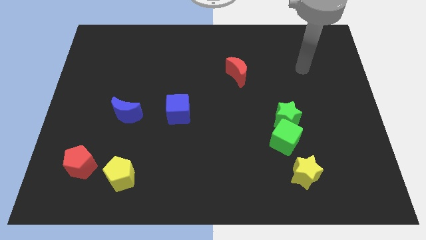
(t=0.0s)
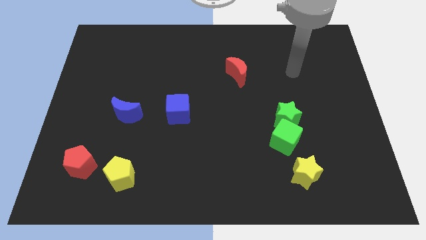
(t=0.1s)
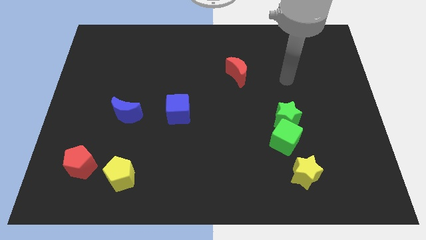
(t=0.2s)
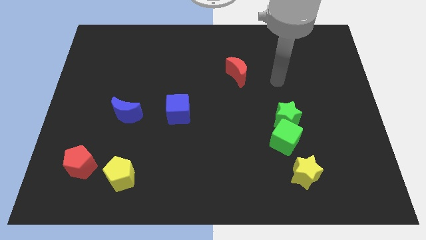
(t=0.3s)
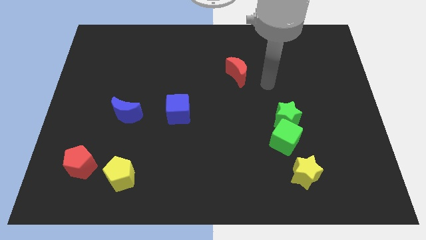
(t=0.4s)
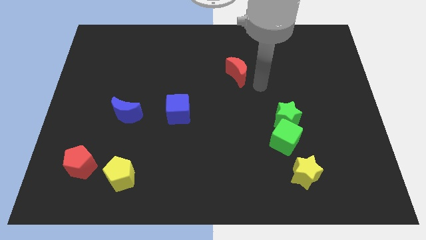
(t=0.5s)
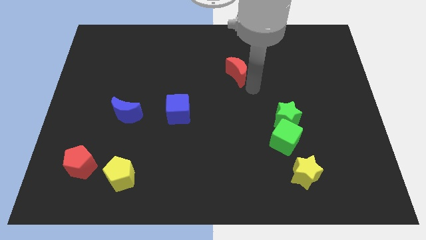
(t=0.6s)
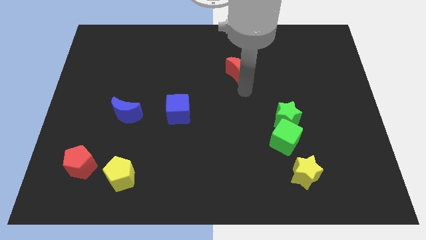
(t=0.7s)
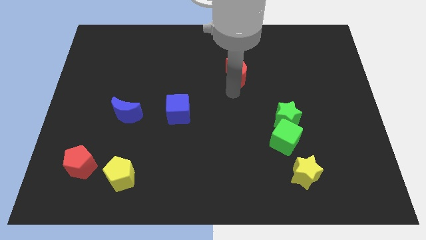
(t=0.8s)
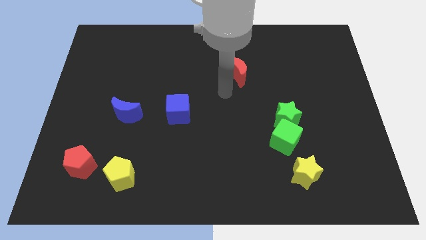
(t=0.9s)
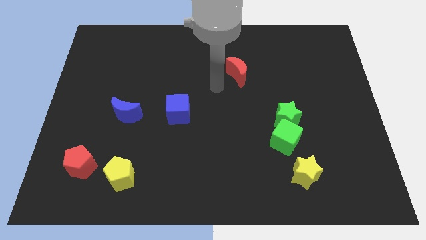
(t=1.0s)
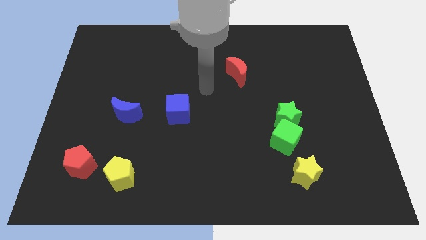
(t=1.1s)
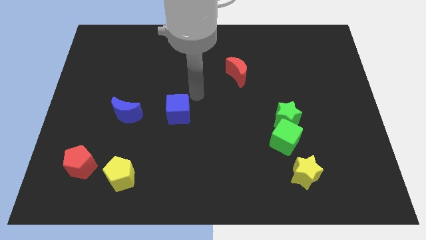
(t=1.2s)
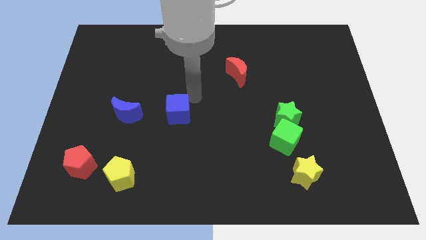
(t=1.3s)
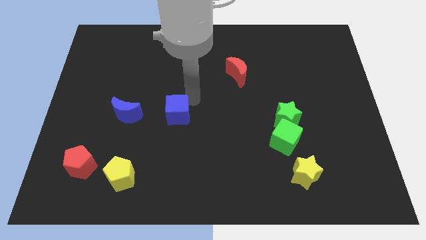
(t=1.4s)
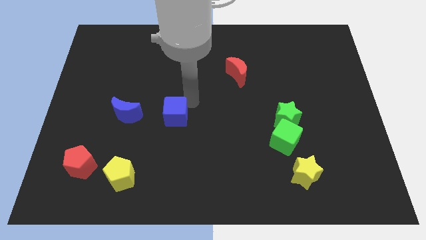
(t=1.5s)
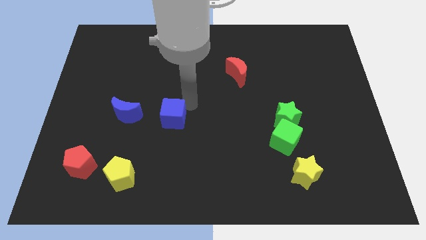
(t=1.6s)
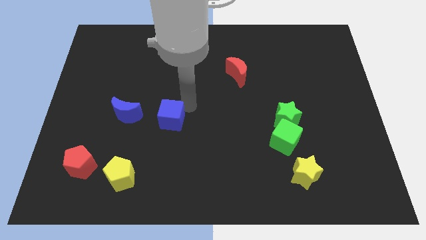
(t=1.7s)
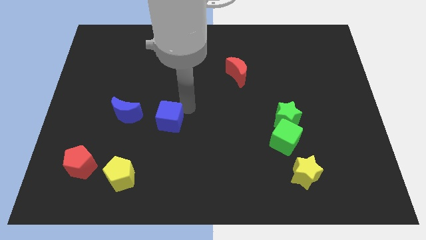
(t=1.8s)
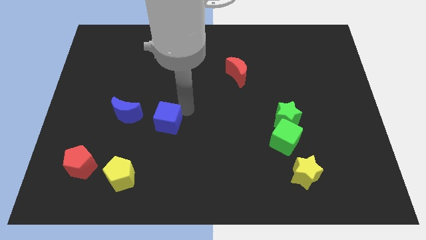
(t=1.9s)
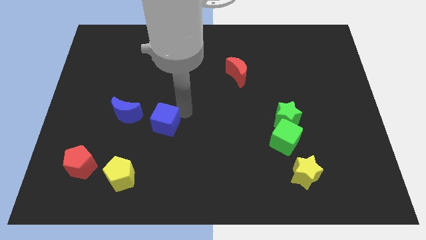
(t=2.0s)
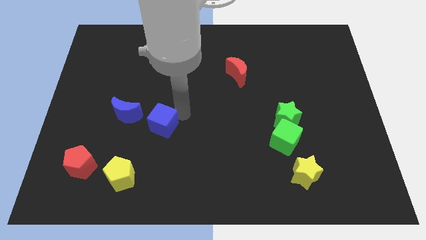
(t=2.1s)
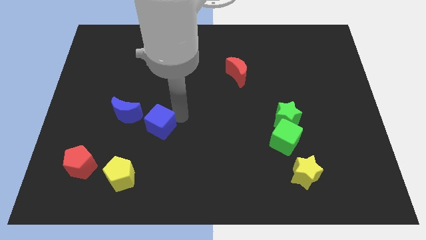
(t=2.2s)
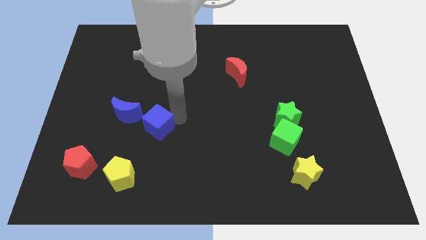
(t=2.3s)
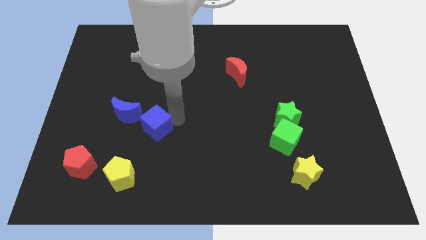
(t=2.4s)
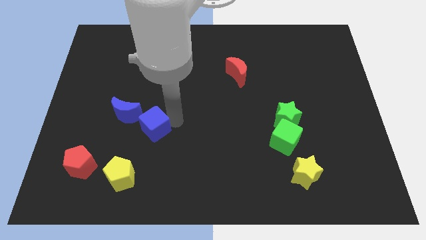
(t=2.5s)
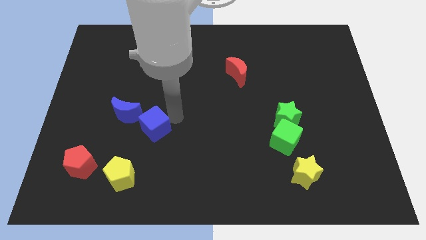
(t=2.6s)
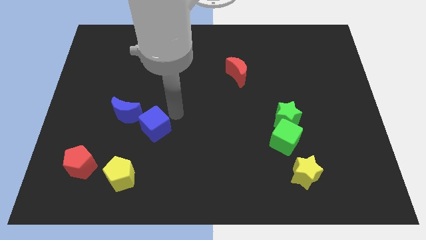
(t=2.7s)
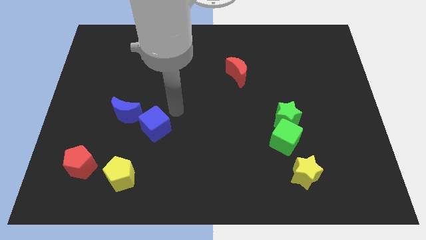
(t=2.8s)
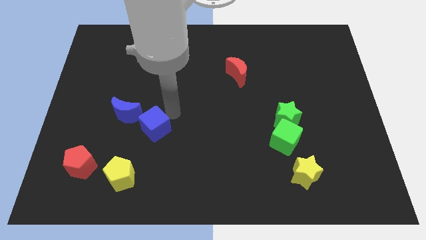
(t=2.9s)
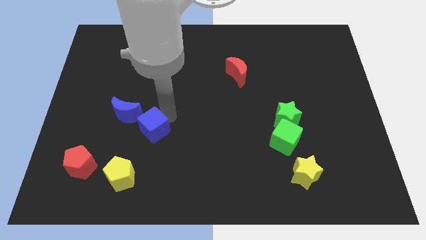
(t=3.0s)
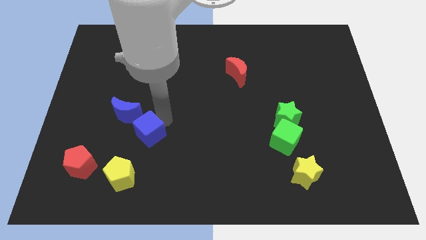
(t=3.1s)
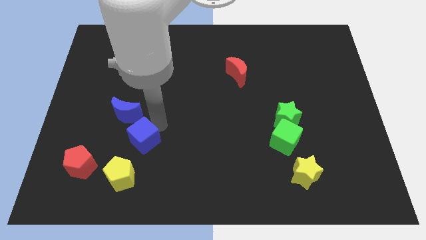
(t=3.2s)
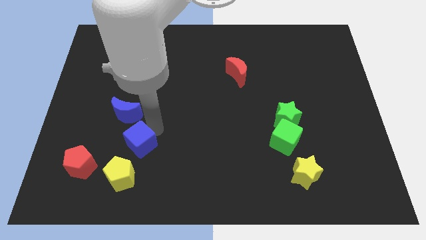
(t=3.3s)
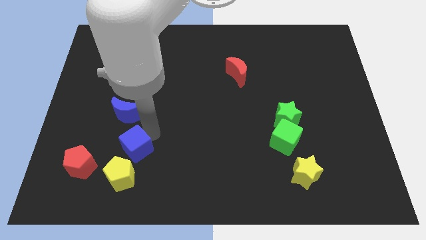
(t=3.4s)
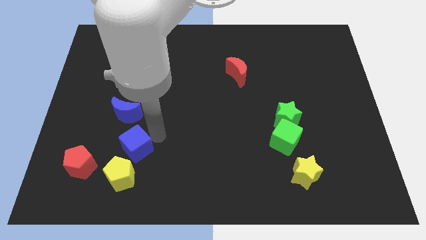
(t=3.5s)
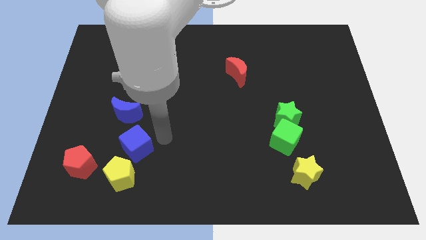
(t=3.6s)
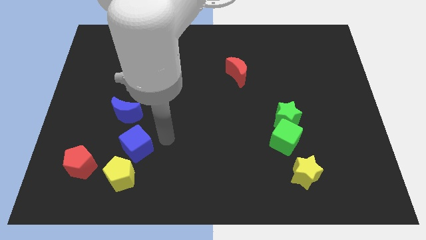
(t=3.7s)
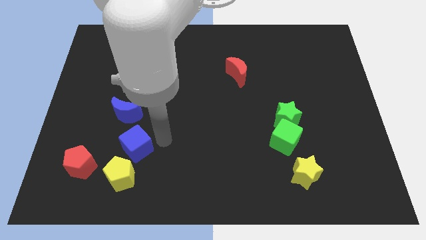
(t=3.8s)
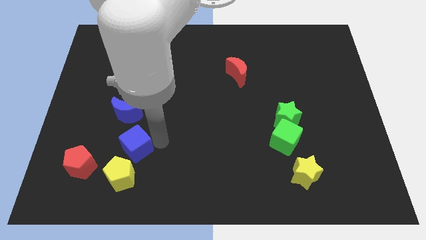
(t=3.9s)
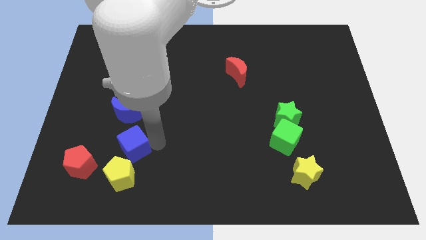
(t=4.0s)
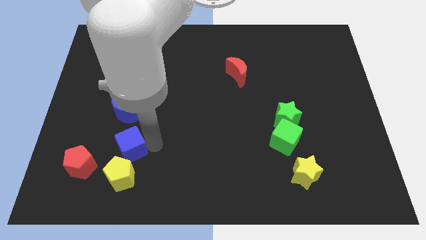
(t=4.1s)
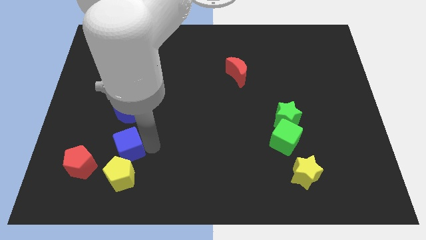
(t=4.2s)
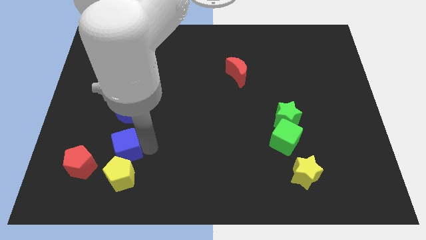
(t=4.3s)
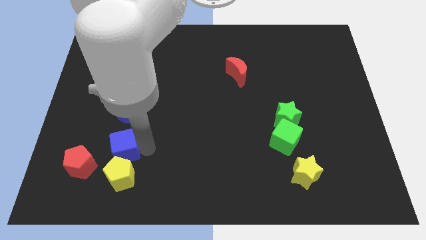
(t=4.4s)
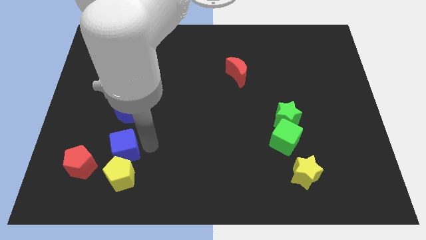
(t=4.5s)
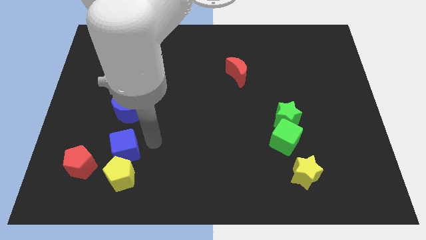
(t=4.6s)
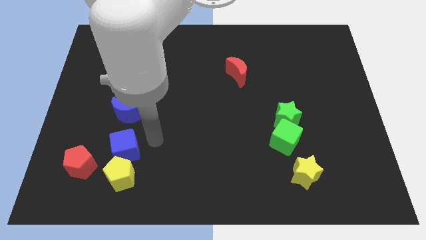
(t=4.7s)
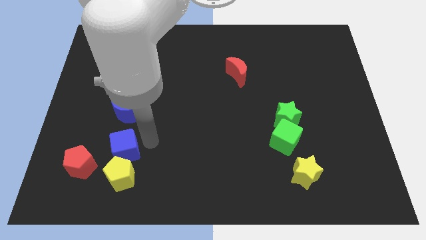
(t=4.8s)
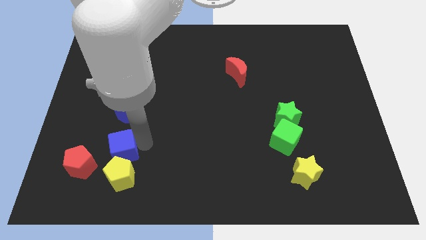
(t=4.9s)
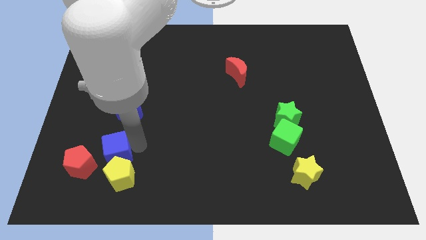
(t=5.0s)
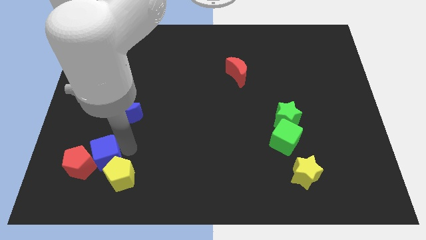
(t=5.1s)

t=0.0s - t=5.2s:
slide the blue cube close to the red pentagon

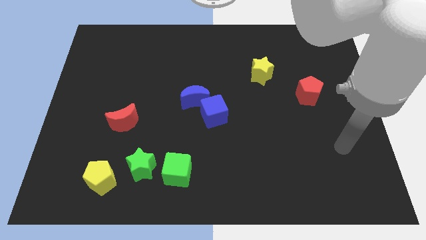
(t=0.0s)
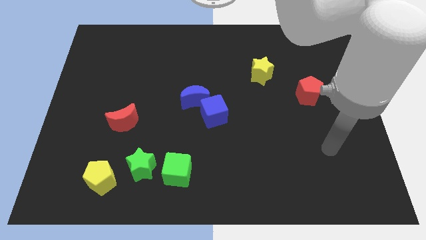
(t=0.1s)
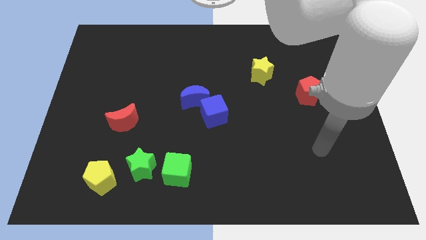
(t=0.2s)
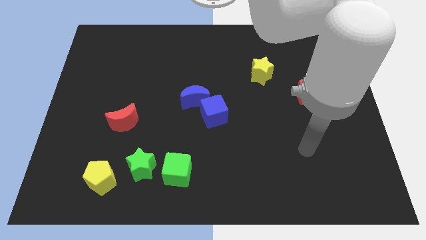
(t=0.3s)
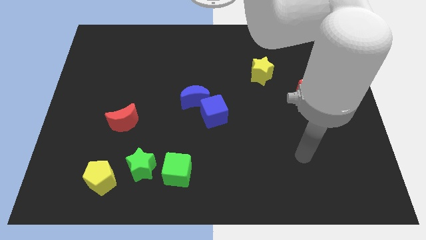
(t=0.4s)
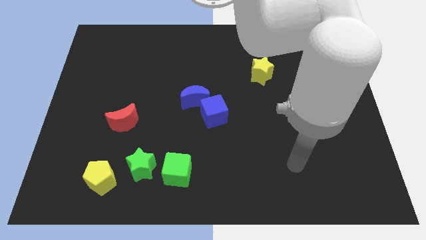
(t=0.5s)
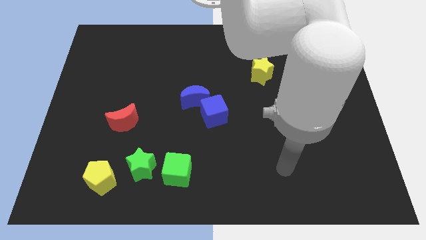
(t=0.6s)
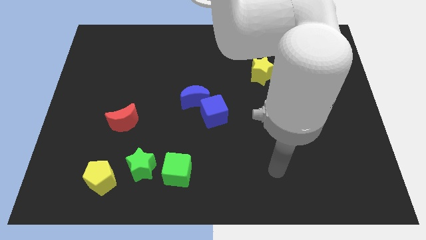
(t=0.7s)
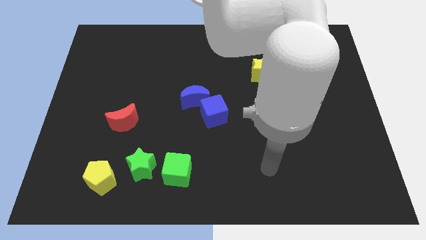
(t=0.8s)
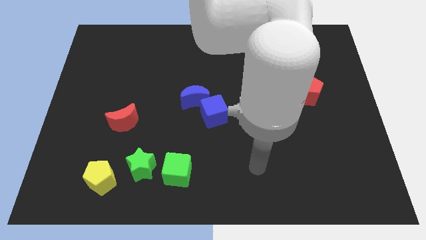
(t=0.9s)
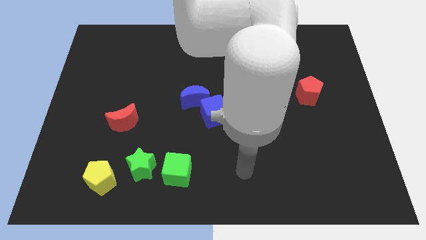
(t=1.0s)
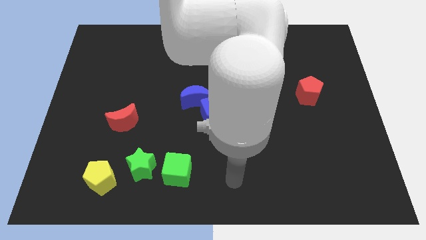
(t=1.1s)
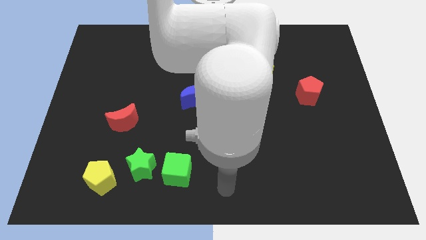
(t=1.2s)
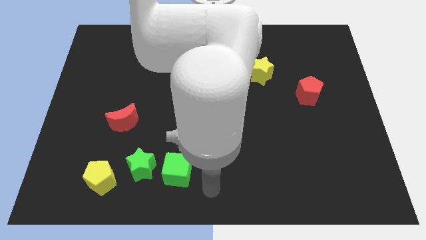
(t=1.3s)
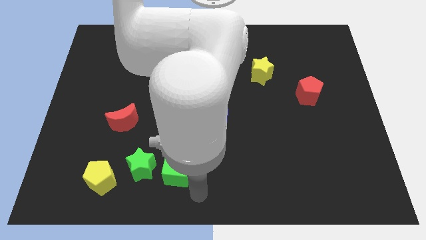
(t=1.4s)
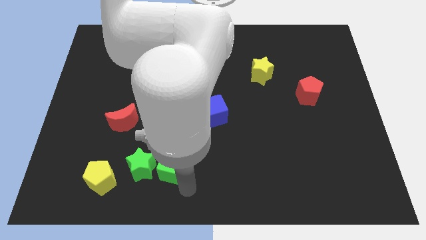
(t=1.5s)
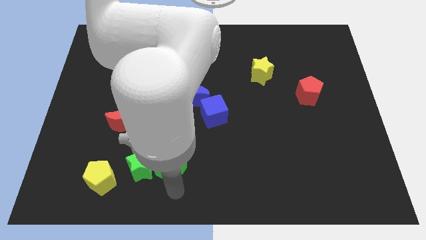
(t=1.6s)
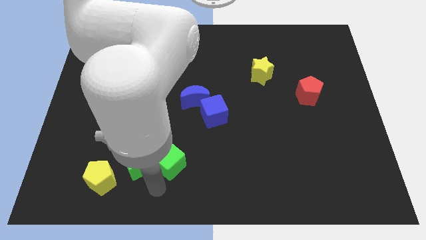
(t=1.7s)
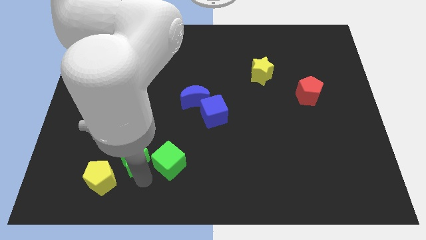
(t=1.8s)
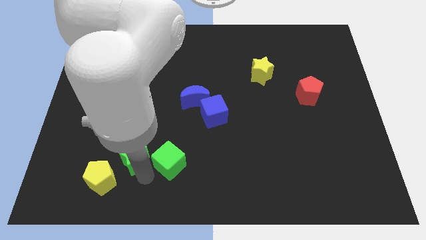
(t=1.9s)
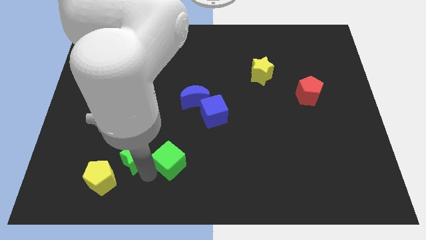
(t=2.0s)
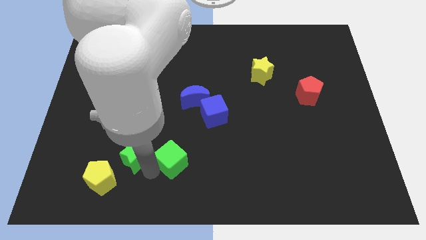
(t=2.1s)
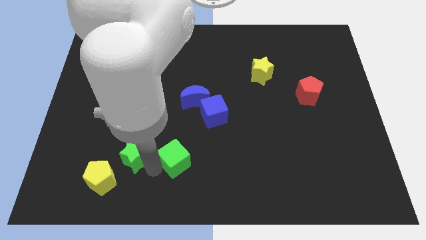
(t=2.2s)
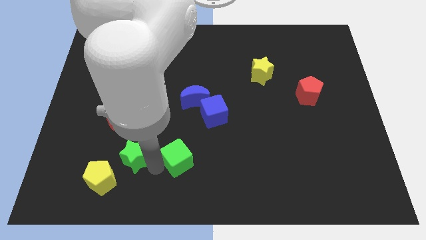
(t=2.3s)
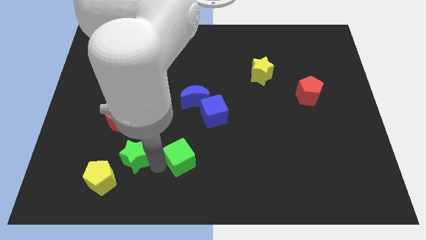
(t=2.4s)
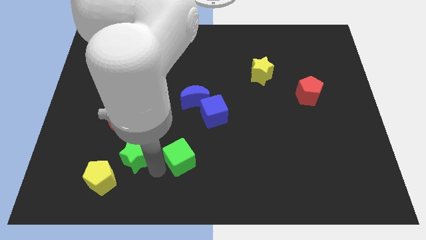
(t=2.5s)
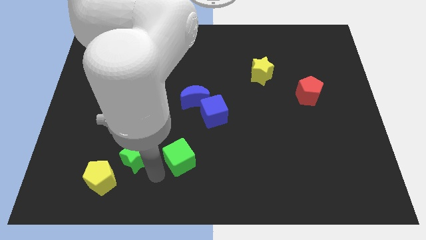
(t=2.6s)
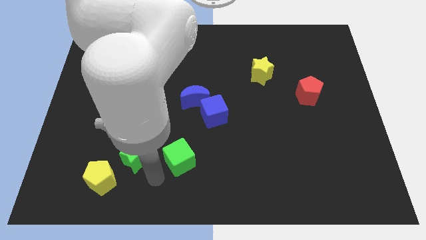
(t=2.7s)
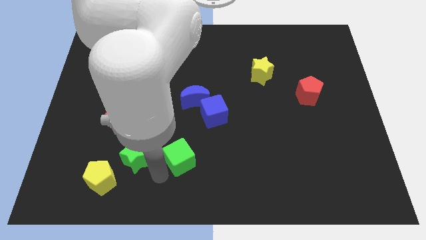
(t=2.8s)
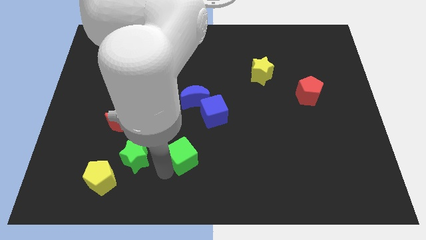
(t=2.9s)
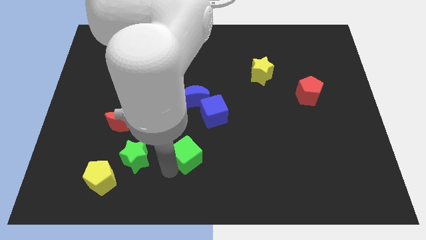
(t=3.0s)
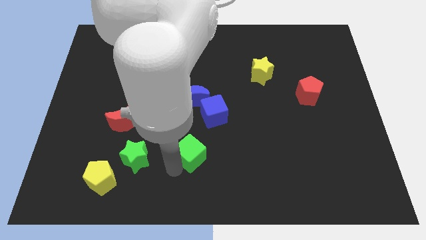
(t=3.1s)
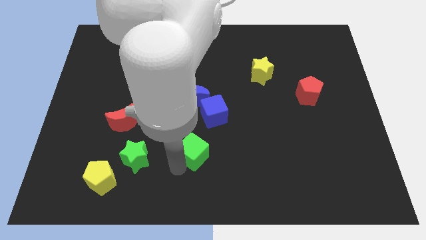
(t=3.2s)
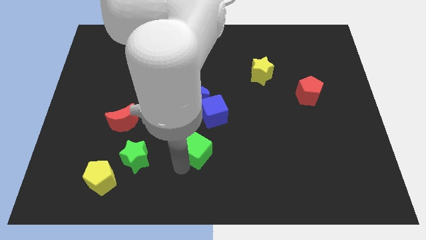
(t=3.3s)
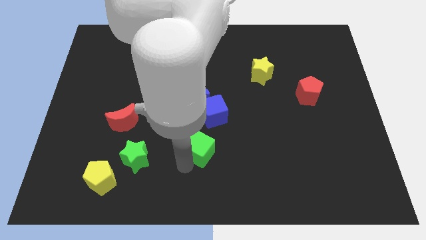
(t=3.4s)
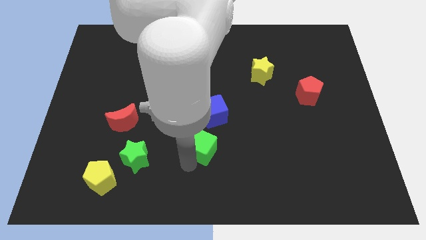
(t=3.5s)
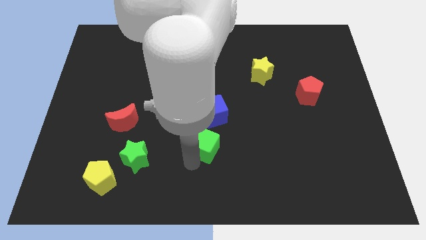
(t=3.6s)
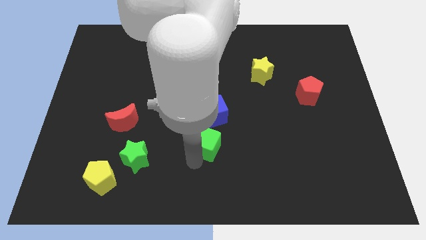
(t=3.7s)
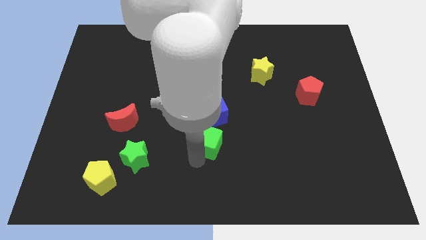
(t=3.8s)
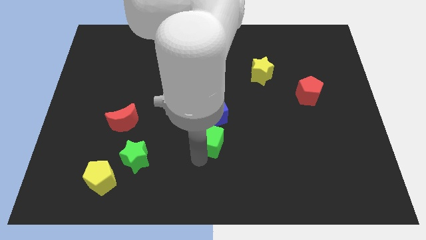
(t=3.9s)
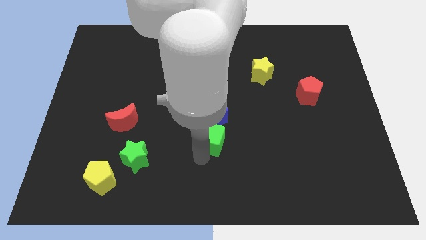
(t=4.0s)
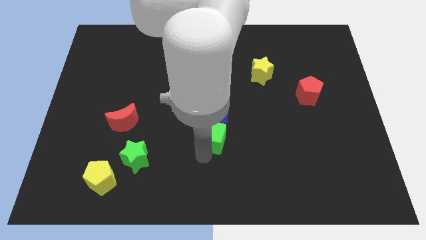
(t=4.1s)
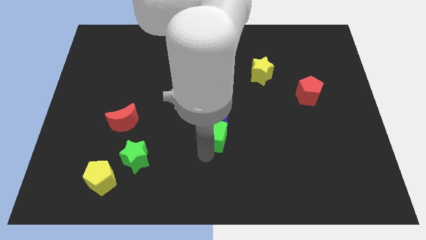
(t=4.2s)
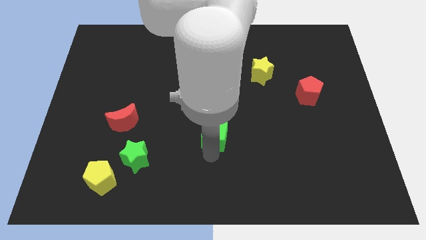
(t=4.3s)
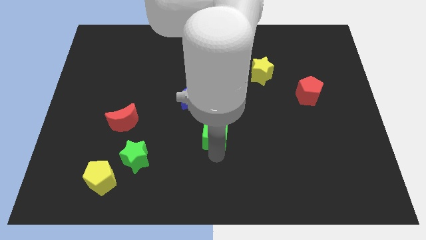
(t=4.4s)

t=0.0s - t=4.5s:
move the green cube next to the blue cube
